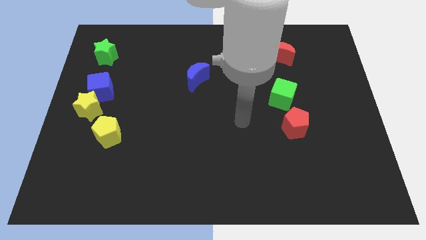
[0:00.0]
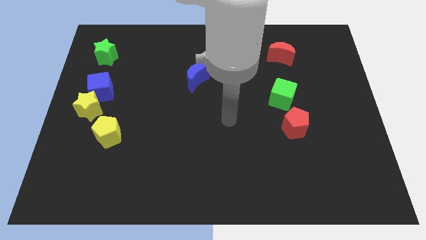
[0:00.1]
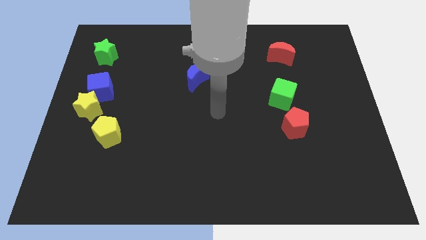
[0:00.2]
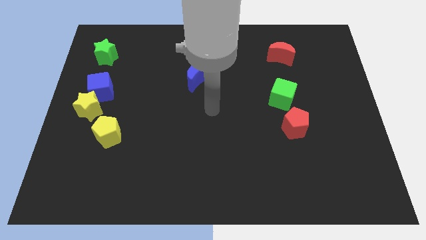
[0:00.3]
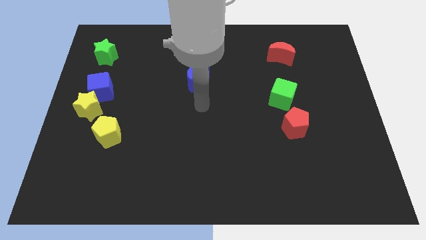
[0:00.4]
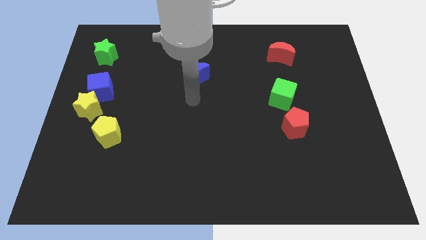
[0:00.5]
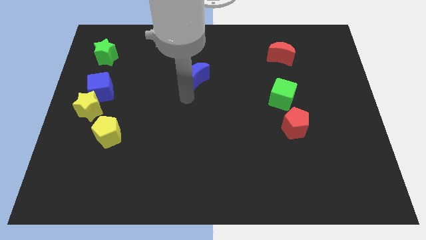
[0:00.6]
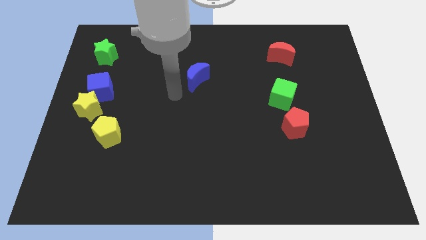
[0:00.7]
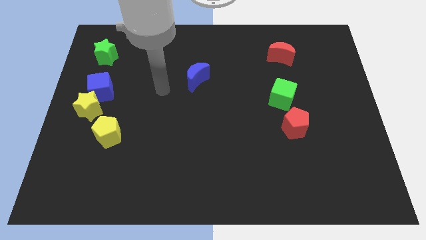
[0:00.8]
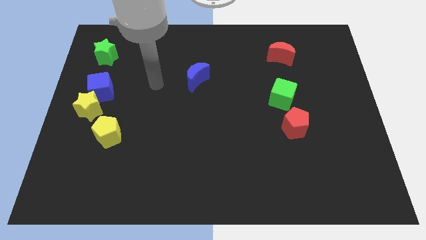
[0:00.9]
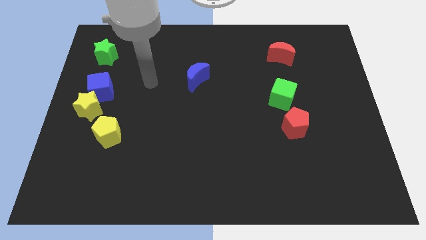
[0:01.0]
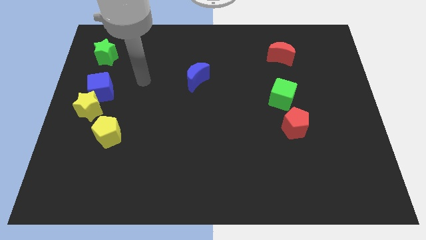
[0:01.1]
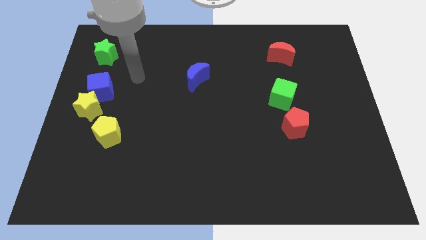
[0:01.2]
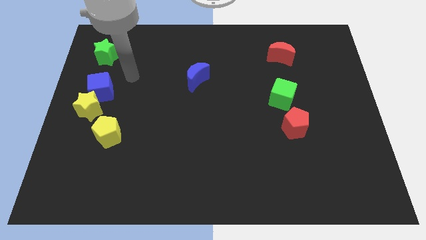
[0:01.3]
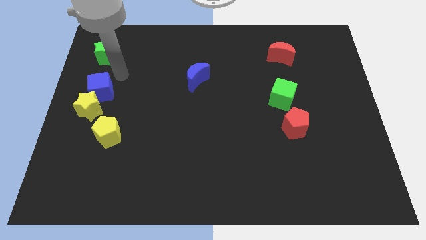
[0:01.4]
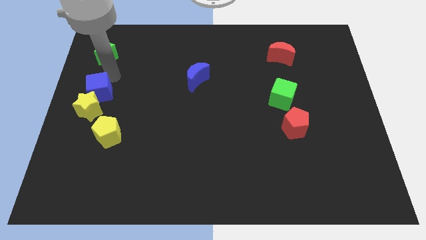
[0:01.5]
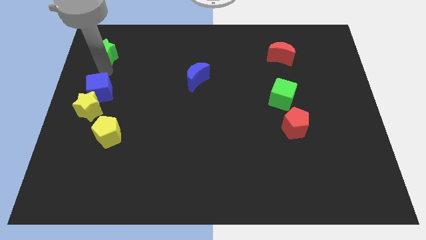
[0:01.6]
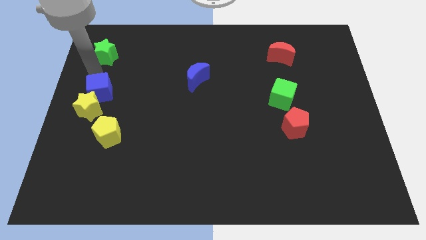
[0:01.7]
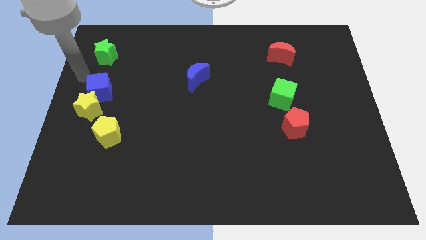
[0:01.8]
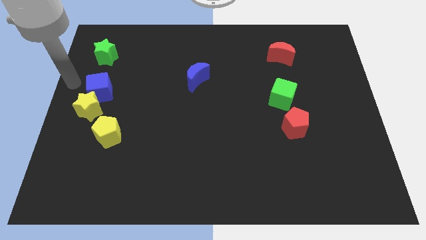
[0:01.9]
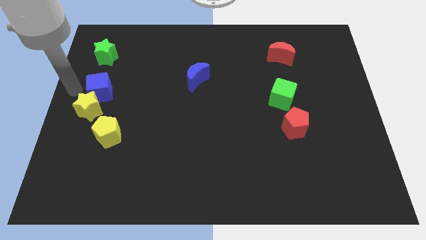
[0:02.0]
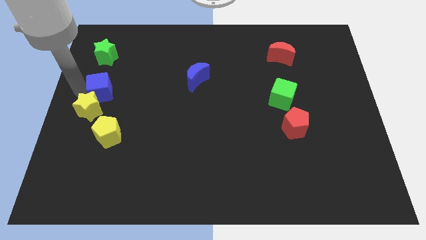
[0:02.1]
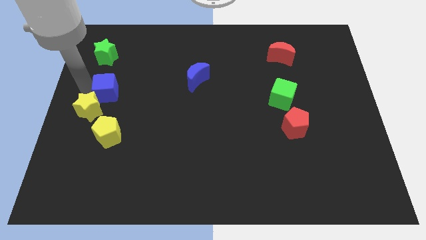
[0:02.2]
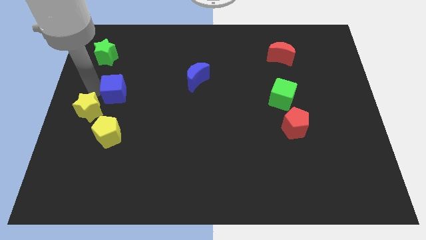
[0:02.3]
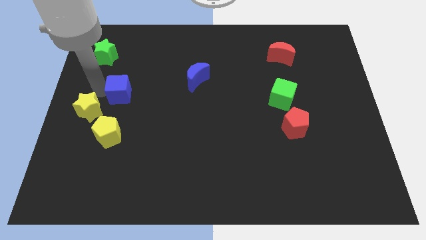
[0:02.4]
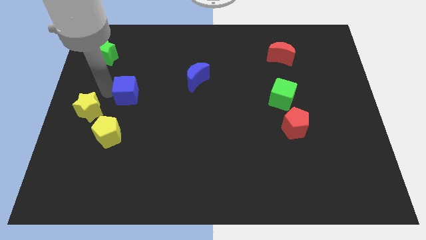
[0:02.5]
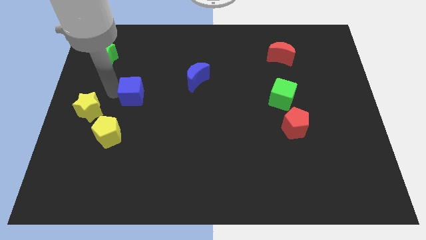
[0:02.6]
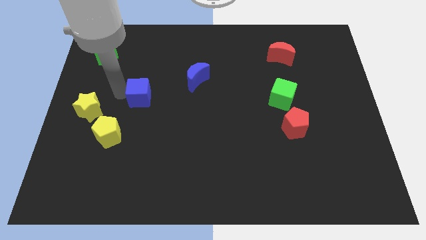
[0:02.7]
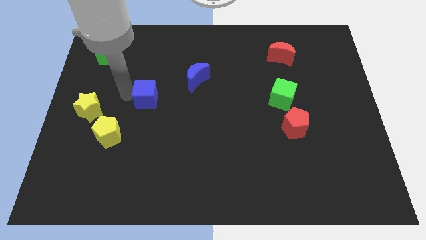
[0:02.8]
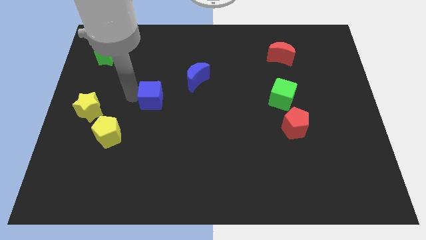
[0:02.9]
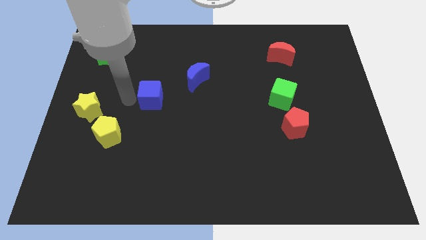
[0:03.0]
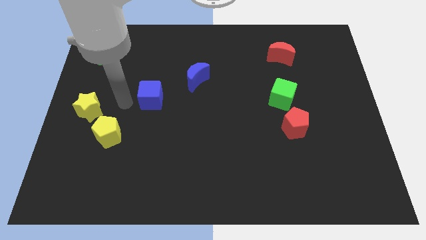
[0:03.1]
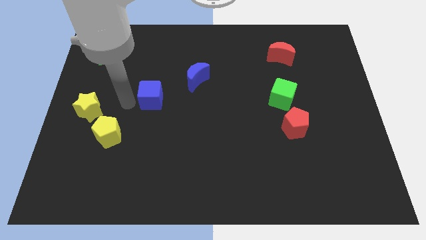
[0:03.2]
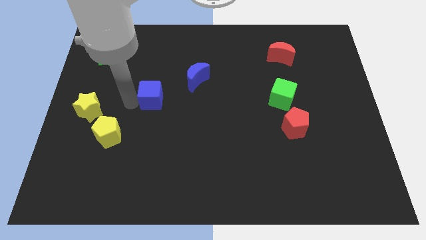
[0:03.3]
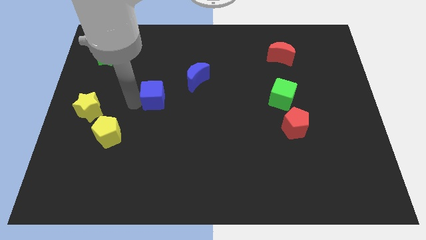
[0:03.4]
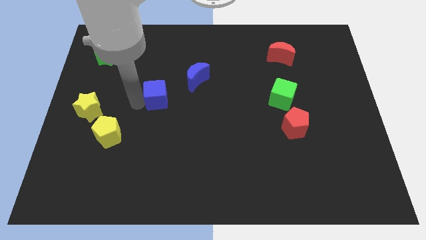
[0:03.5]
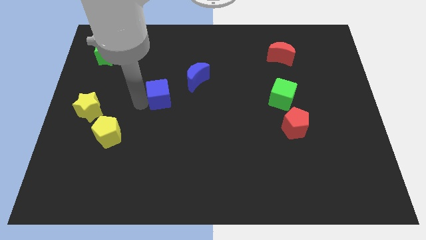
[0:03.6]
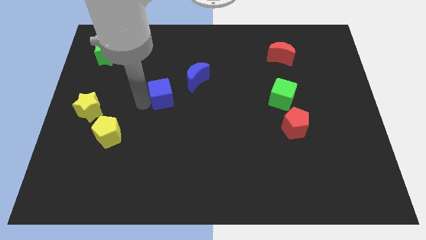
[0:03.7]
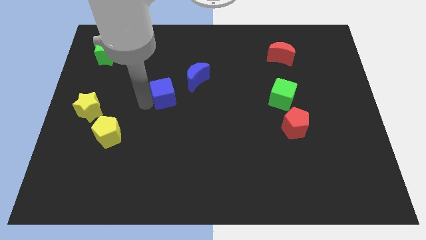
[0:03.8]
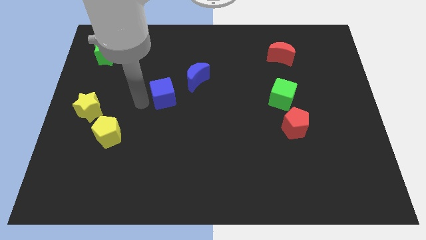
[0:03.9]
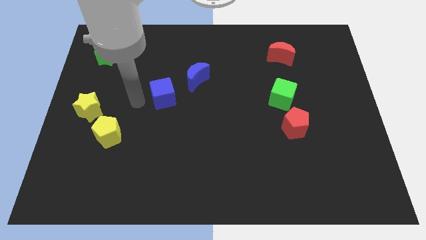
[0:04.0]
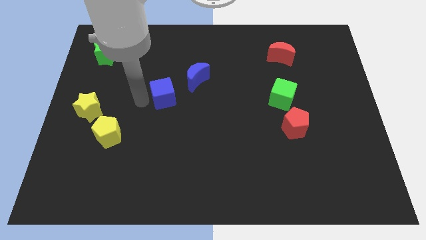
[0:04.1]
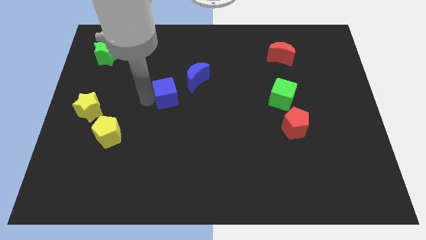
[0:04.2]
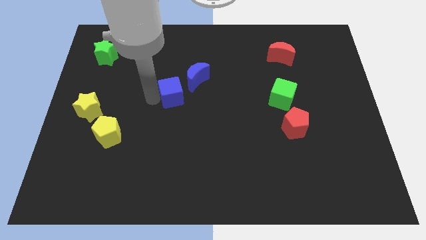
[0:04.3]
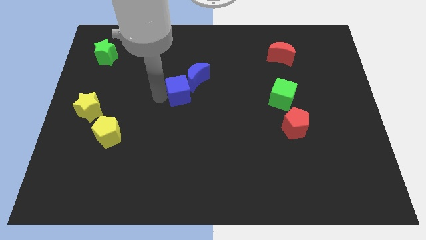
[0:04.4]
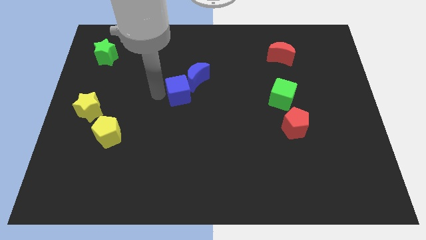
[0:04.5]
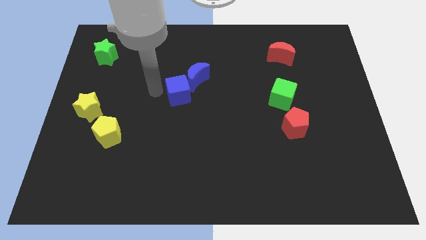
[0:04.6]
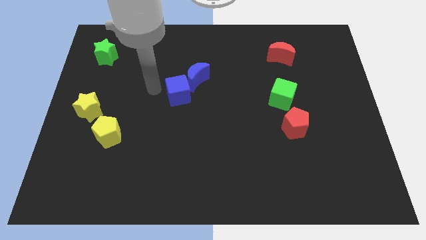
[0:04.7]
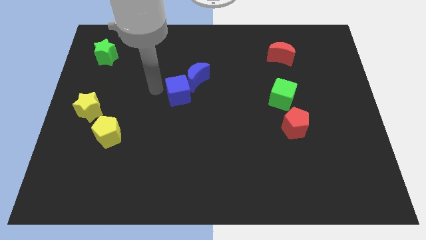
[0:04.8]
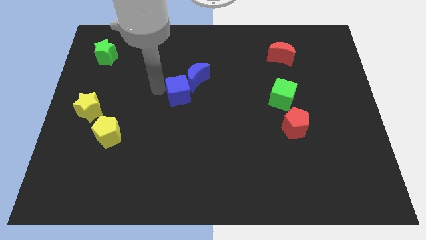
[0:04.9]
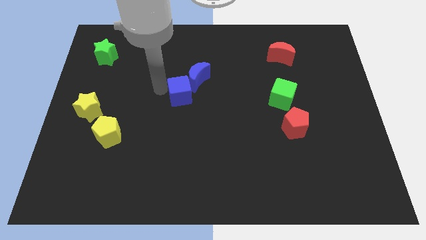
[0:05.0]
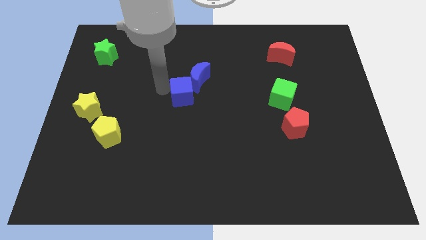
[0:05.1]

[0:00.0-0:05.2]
push the blue cube right

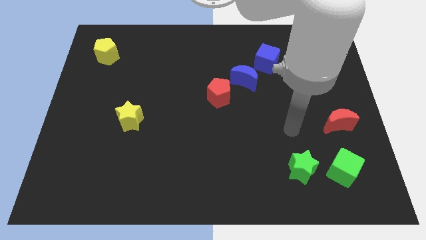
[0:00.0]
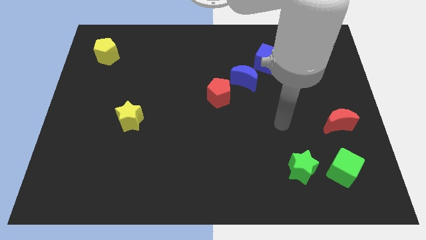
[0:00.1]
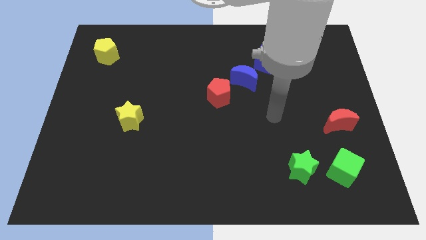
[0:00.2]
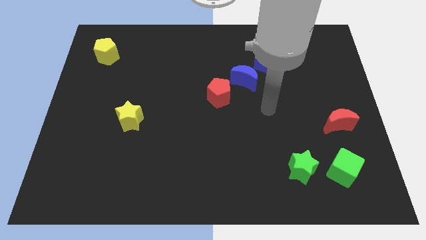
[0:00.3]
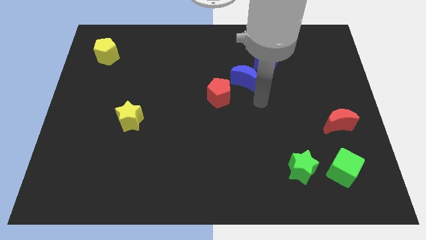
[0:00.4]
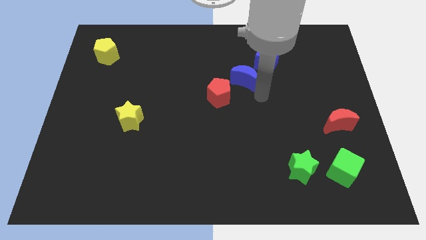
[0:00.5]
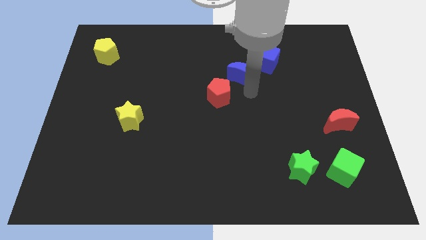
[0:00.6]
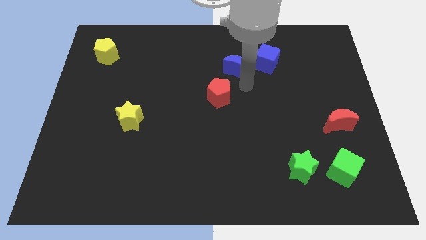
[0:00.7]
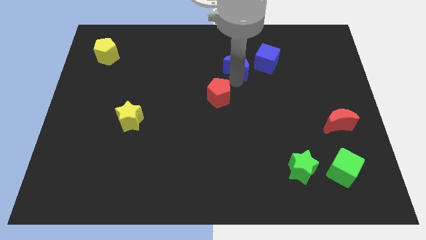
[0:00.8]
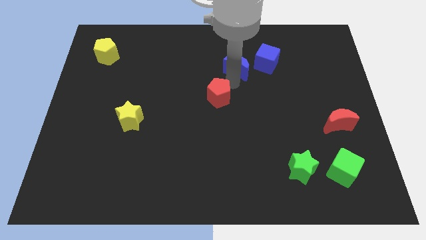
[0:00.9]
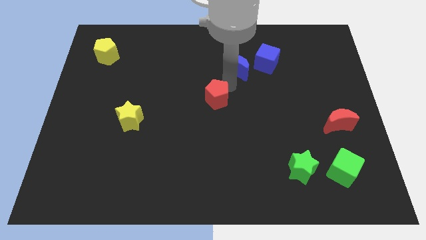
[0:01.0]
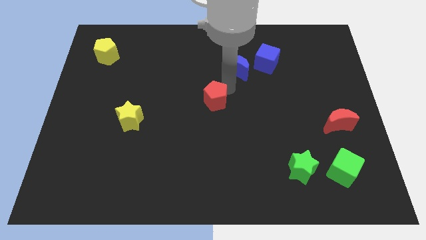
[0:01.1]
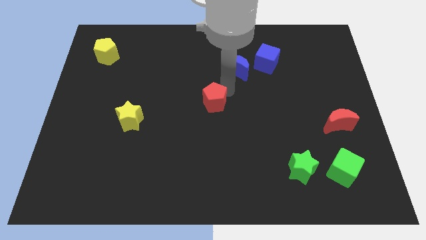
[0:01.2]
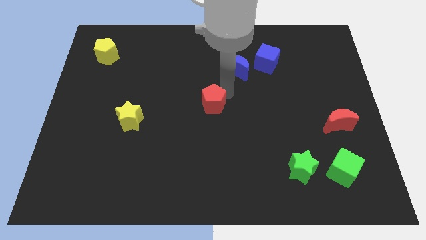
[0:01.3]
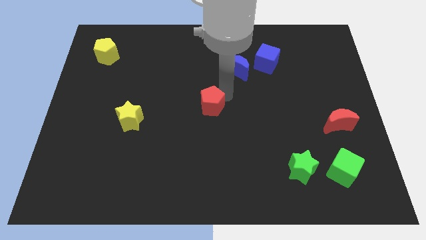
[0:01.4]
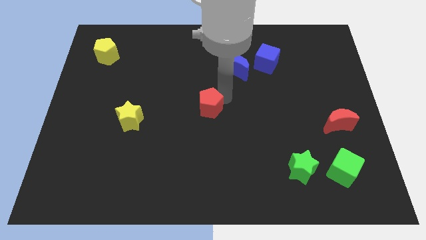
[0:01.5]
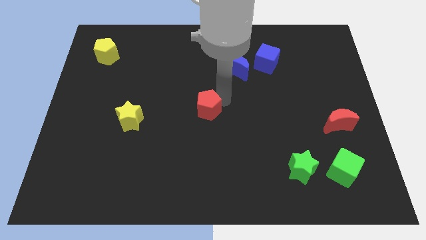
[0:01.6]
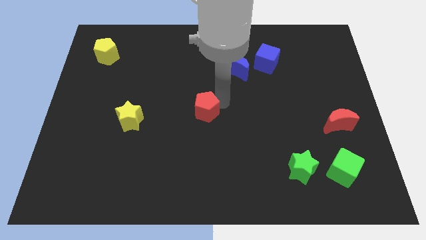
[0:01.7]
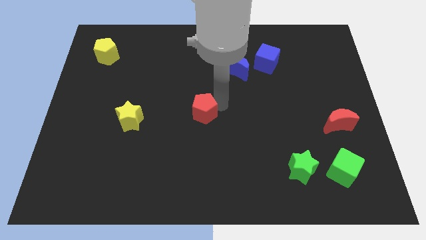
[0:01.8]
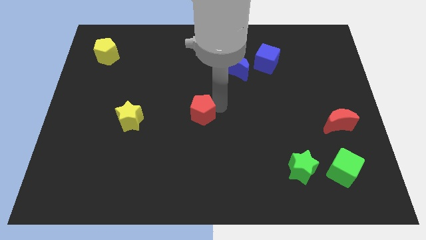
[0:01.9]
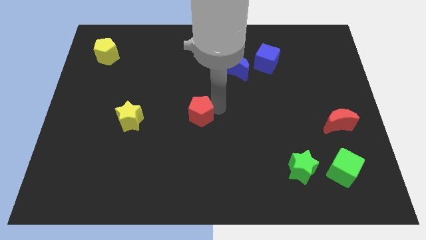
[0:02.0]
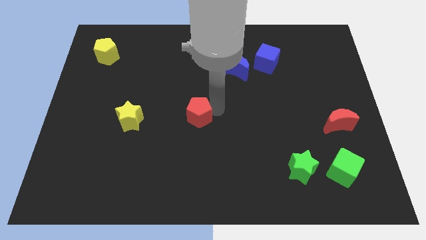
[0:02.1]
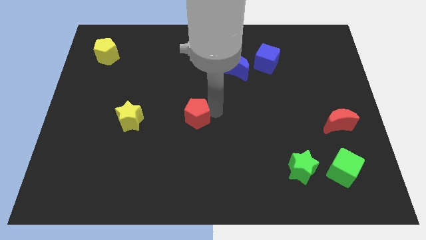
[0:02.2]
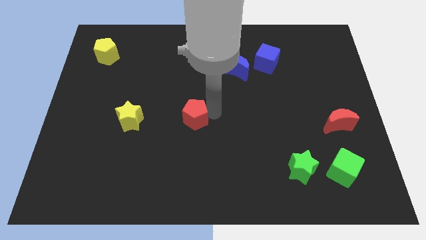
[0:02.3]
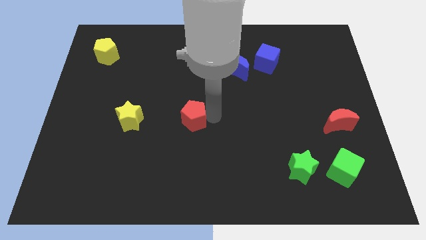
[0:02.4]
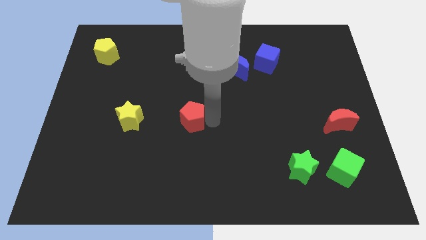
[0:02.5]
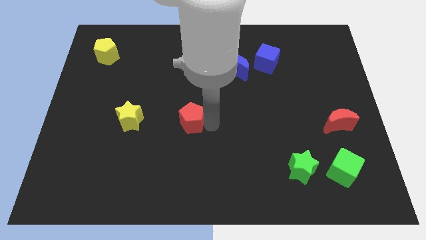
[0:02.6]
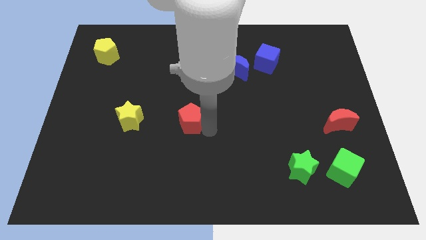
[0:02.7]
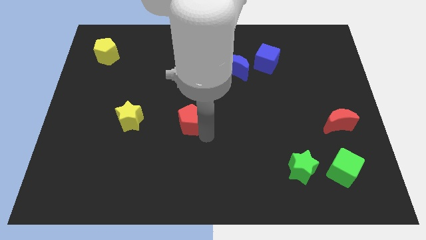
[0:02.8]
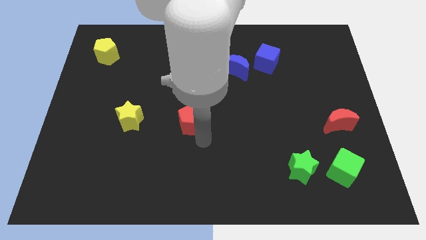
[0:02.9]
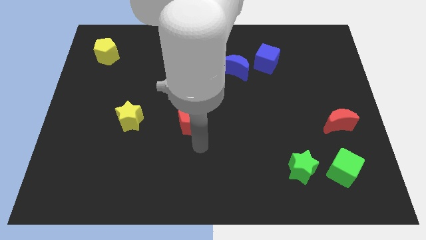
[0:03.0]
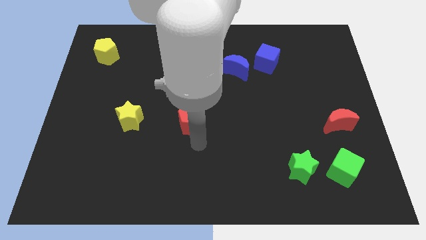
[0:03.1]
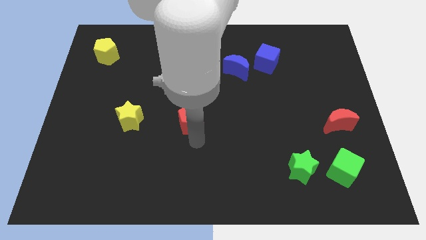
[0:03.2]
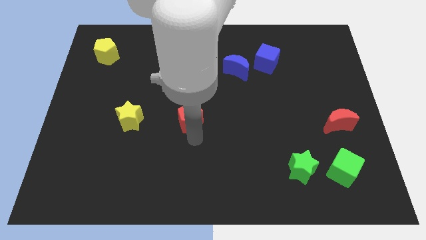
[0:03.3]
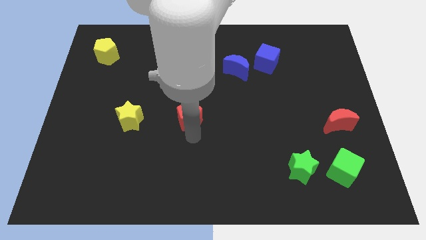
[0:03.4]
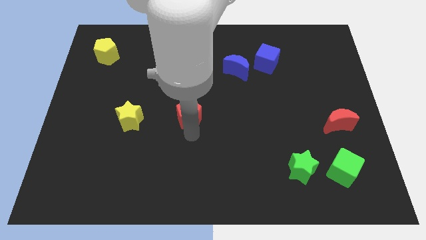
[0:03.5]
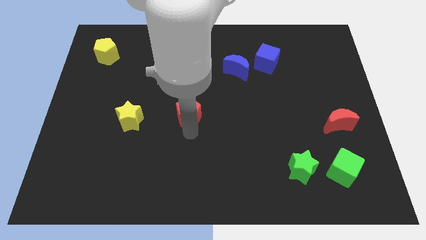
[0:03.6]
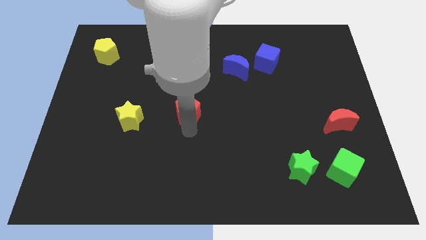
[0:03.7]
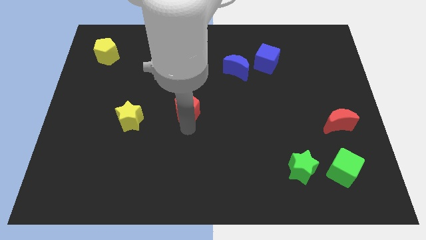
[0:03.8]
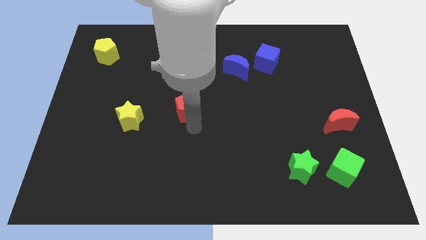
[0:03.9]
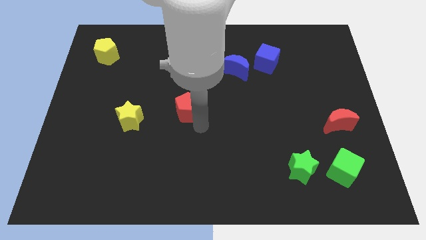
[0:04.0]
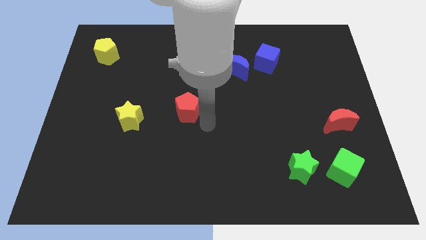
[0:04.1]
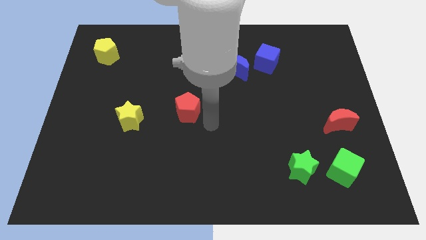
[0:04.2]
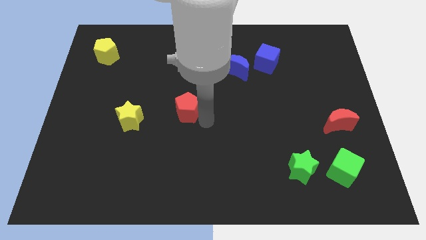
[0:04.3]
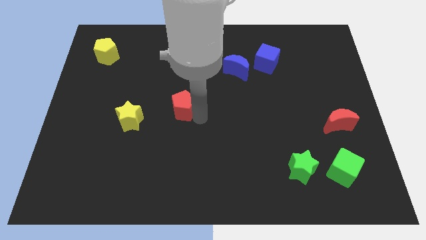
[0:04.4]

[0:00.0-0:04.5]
slide the red pentagon a little bit left
